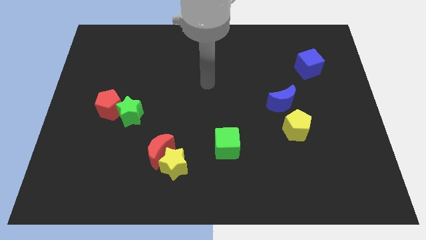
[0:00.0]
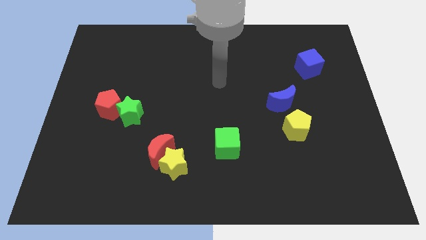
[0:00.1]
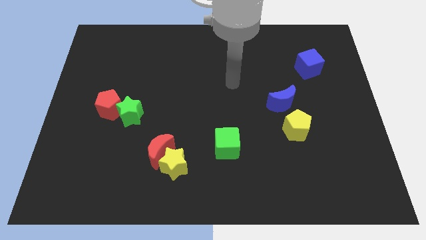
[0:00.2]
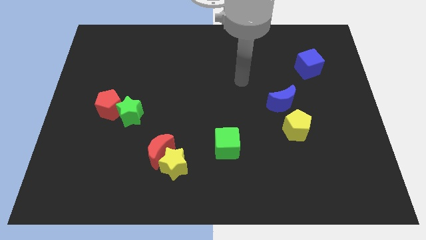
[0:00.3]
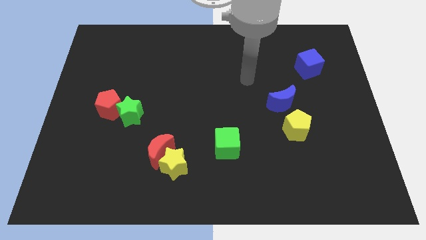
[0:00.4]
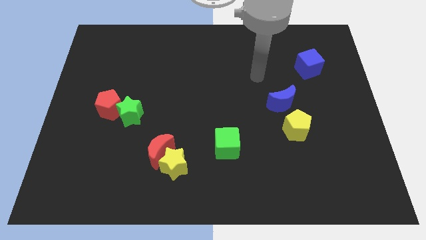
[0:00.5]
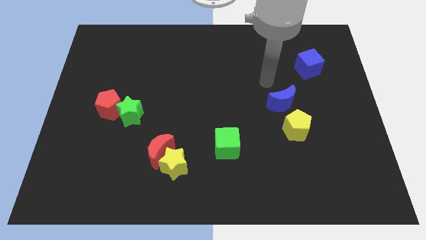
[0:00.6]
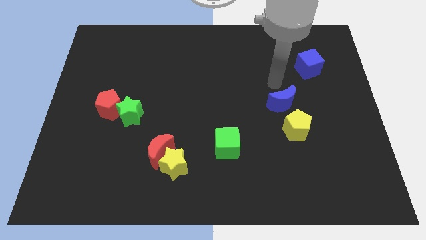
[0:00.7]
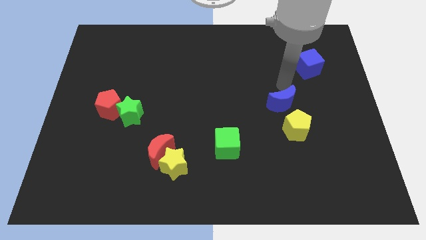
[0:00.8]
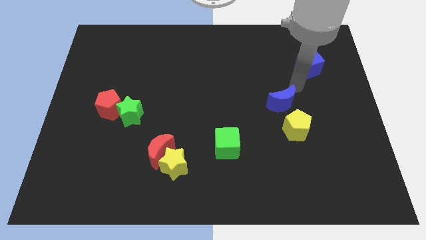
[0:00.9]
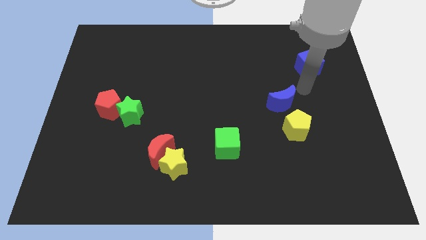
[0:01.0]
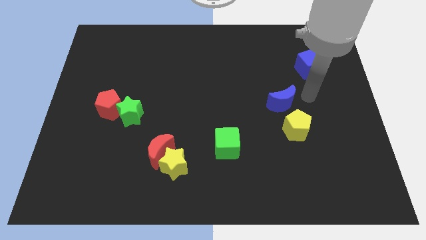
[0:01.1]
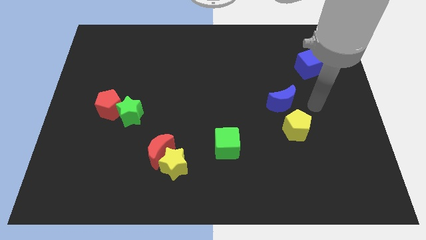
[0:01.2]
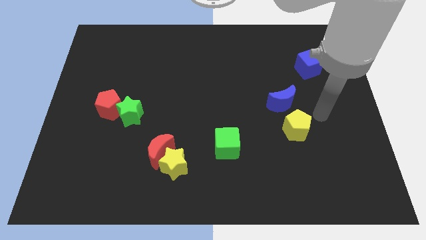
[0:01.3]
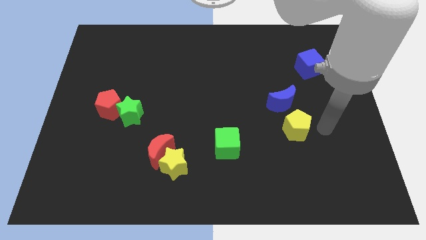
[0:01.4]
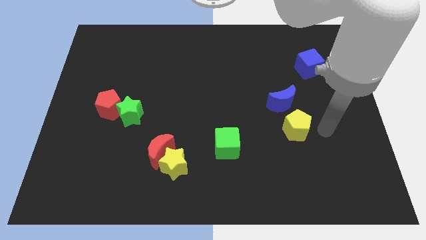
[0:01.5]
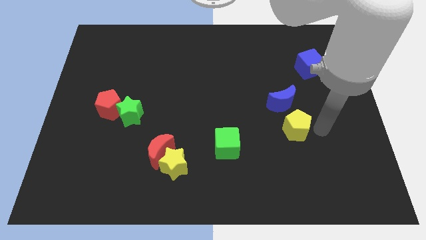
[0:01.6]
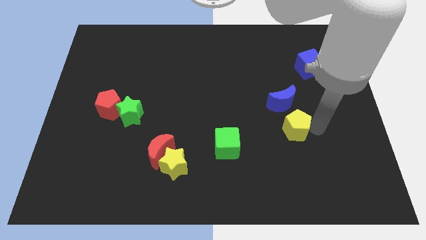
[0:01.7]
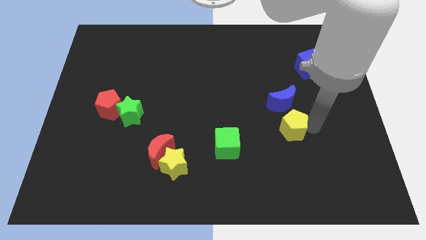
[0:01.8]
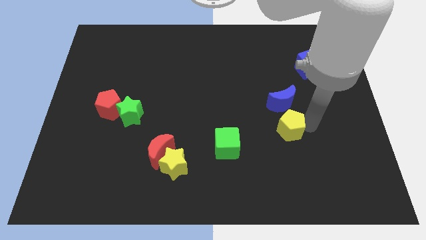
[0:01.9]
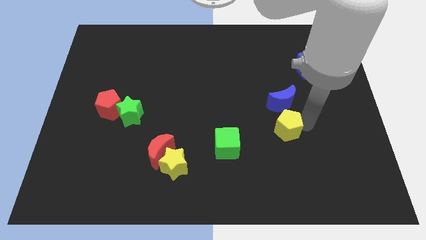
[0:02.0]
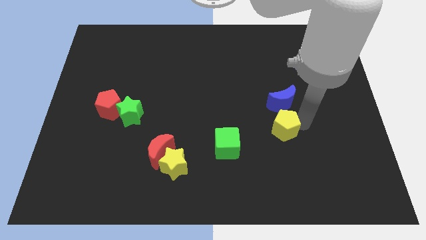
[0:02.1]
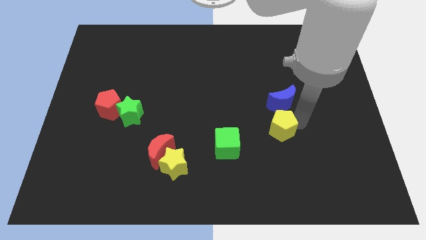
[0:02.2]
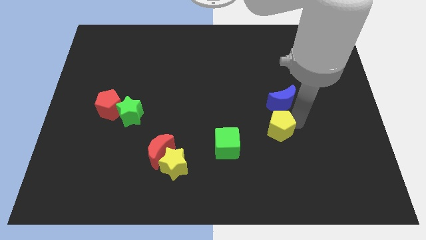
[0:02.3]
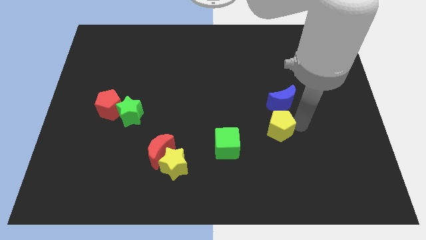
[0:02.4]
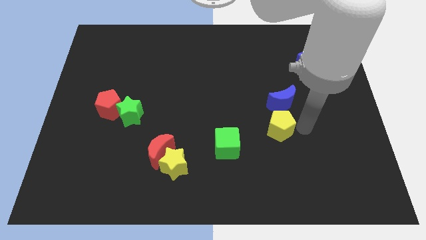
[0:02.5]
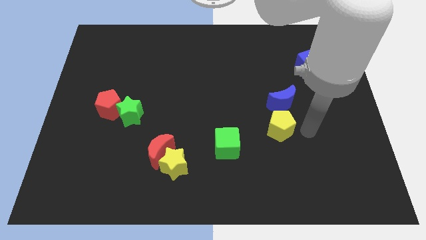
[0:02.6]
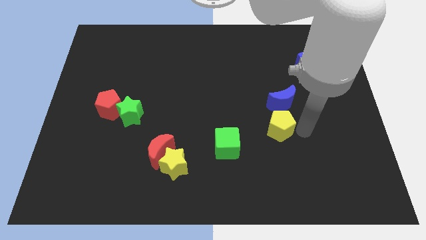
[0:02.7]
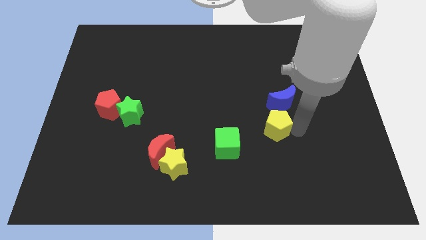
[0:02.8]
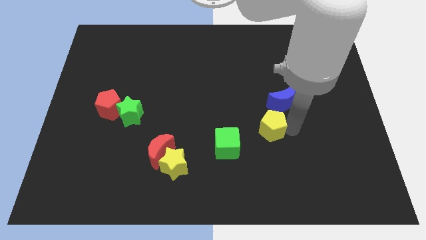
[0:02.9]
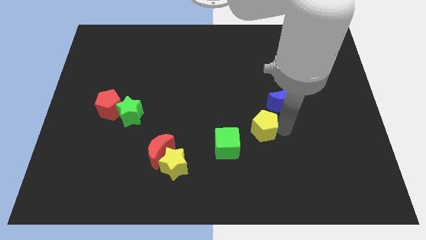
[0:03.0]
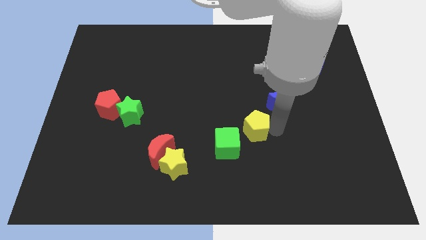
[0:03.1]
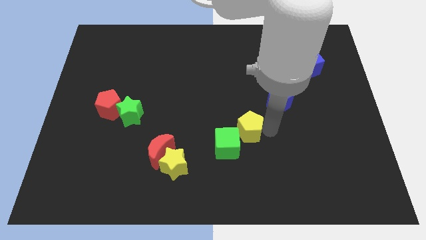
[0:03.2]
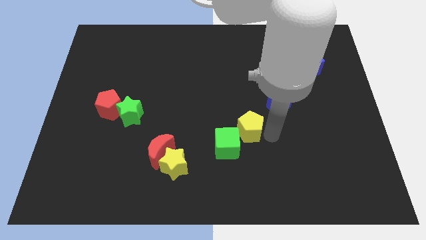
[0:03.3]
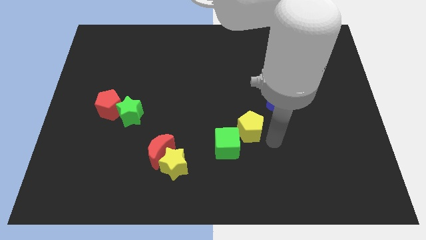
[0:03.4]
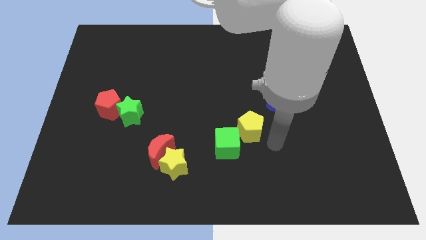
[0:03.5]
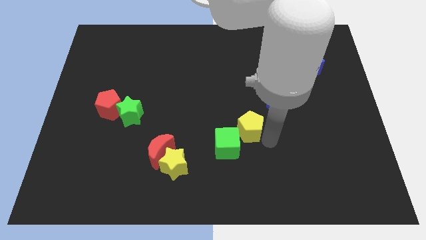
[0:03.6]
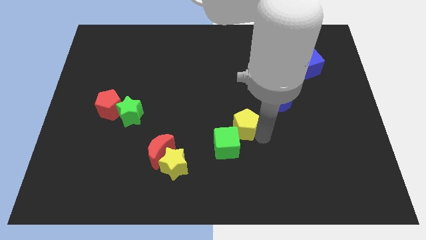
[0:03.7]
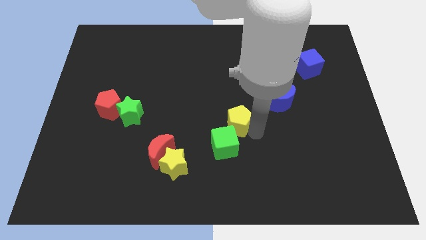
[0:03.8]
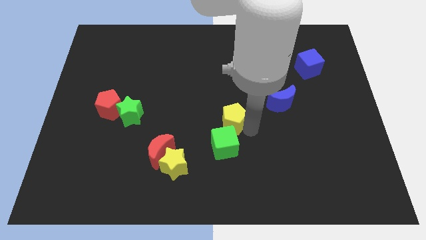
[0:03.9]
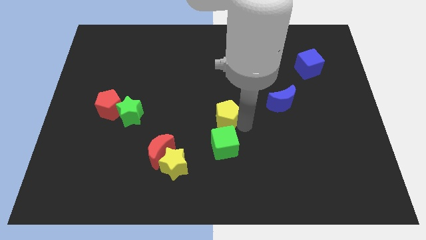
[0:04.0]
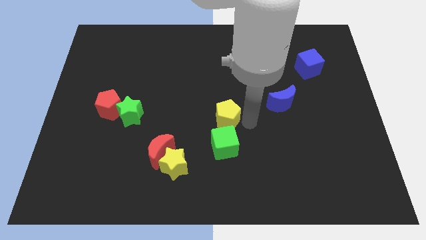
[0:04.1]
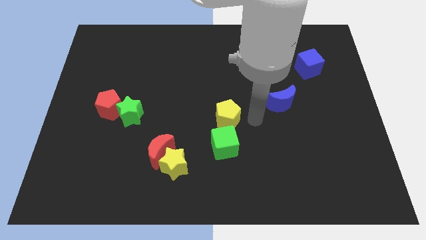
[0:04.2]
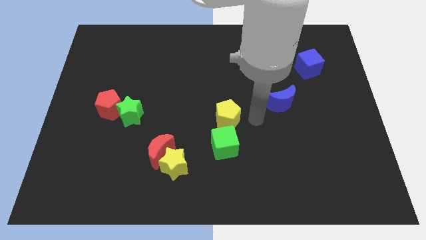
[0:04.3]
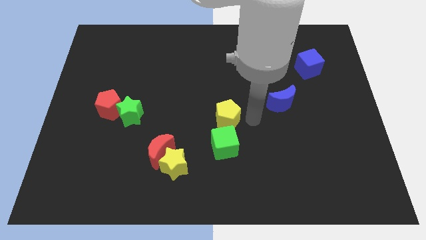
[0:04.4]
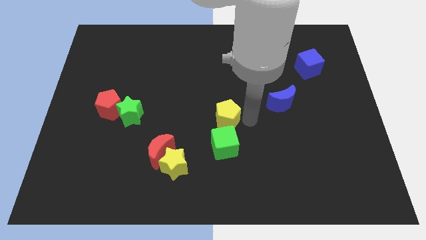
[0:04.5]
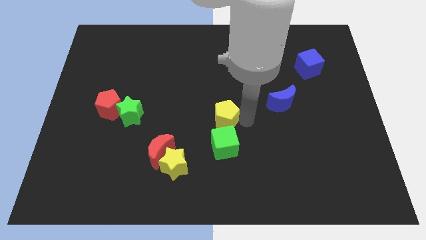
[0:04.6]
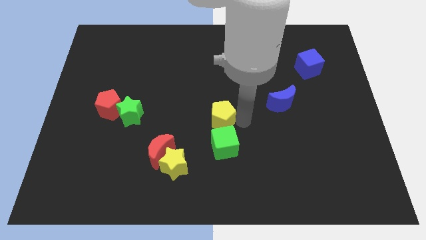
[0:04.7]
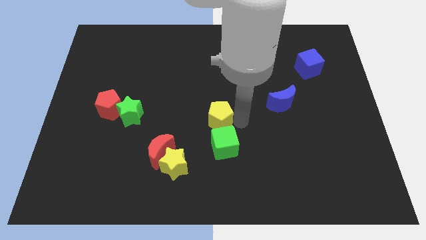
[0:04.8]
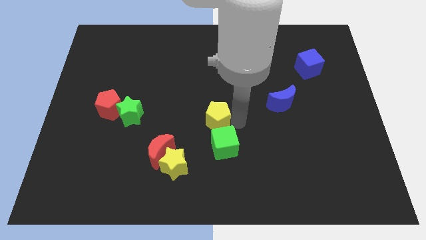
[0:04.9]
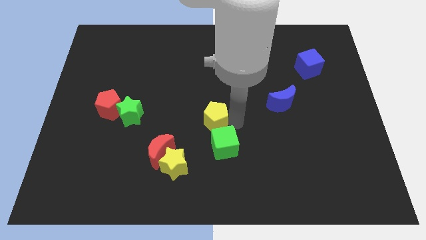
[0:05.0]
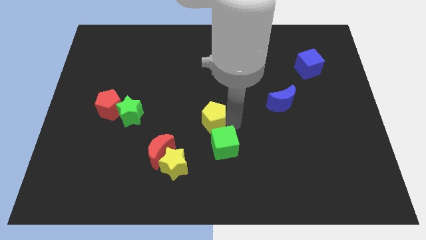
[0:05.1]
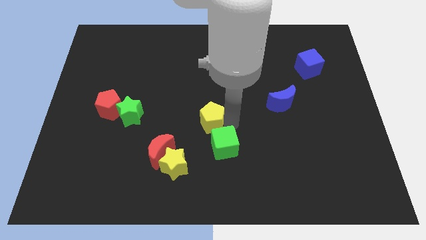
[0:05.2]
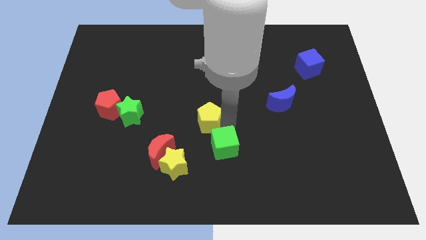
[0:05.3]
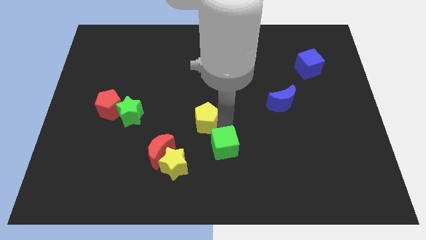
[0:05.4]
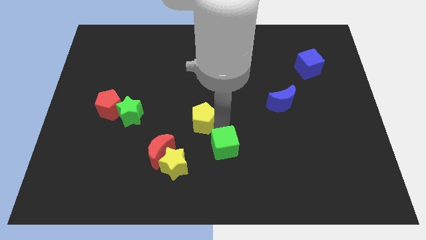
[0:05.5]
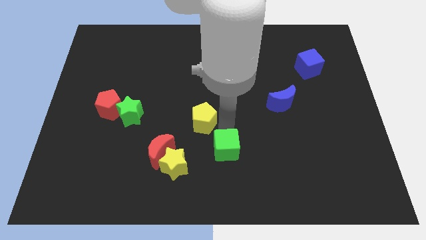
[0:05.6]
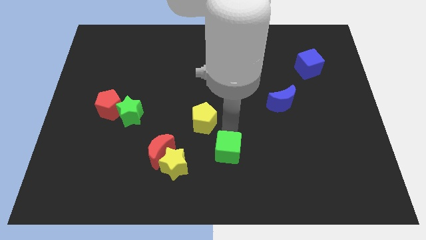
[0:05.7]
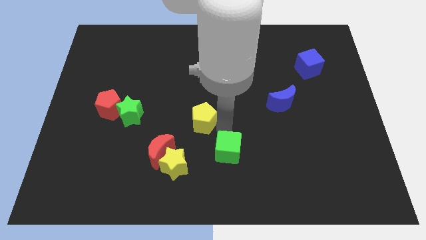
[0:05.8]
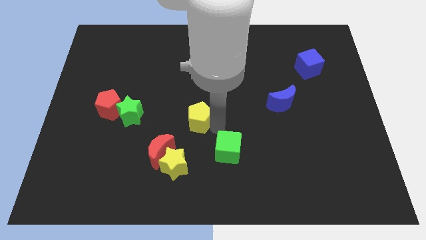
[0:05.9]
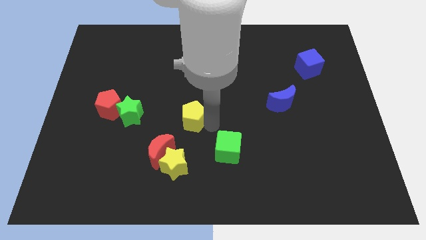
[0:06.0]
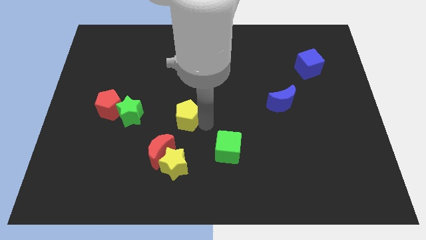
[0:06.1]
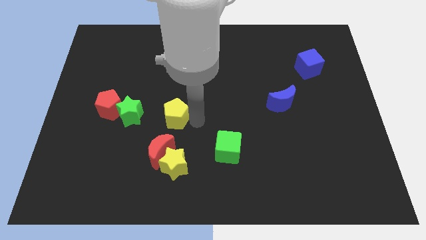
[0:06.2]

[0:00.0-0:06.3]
push the yellow pentagon right of the red pentagon

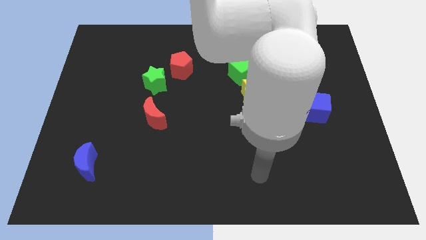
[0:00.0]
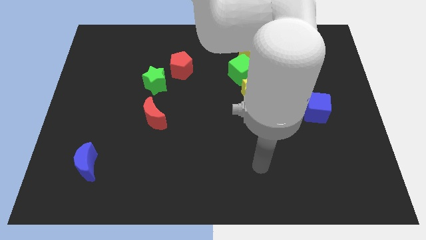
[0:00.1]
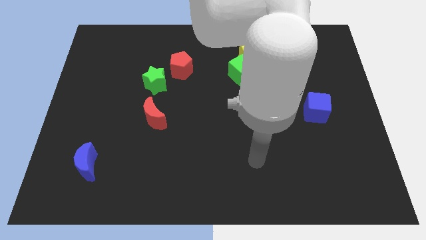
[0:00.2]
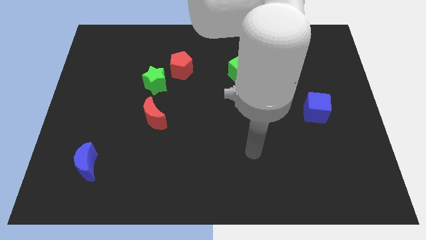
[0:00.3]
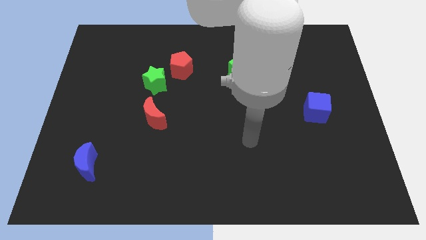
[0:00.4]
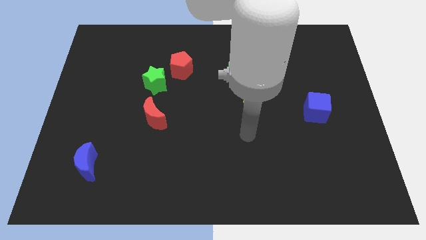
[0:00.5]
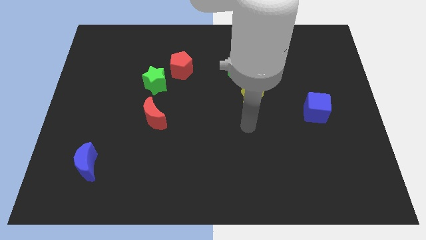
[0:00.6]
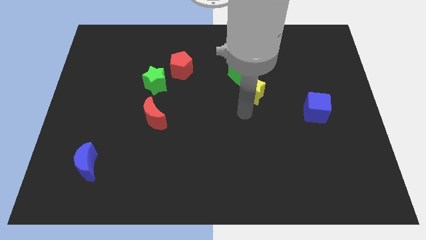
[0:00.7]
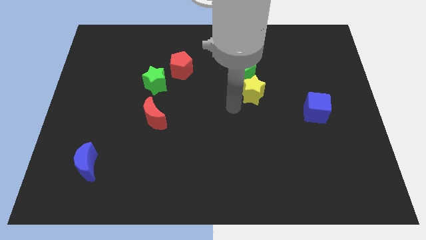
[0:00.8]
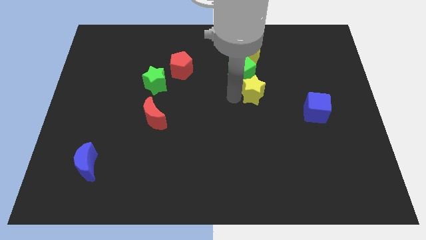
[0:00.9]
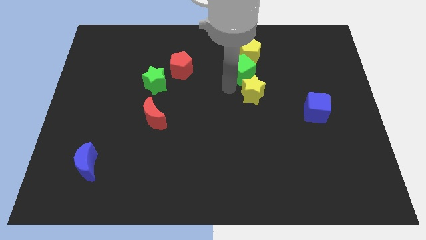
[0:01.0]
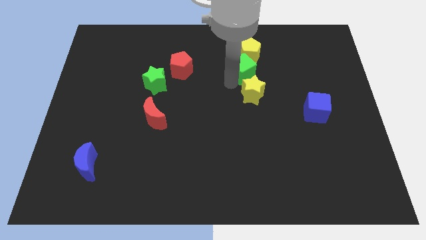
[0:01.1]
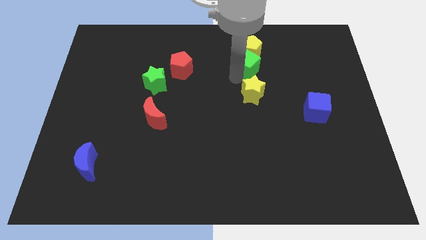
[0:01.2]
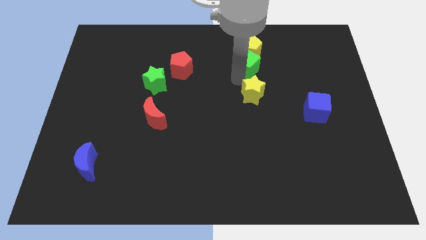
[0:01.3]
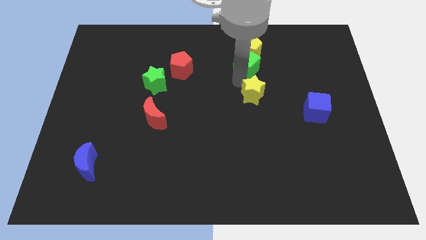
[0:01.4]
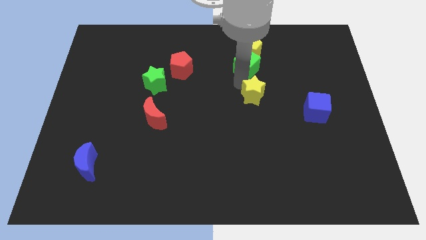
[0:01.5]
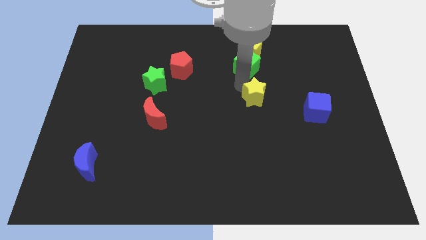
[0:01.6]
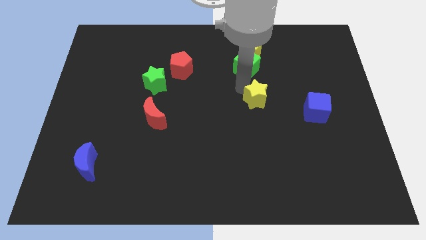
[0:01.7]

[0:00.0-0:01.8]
put the yellow star left of the blue cube
